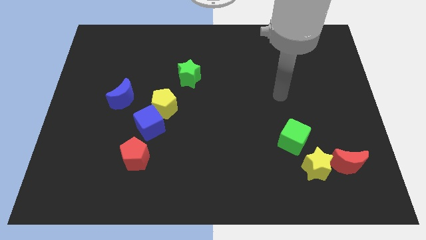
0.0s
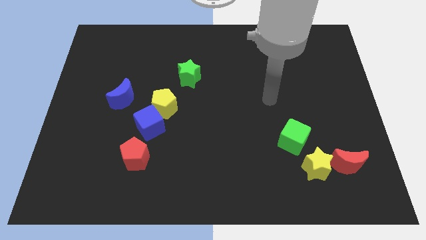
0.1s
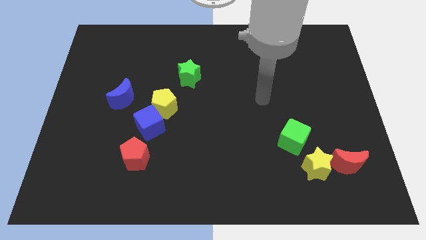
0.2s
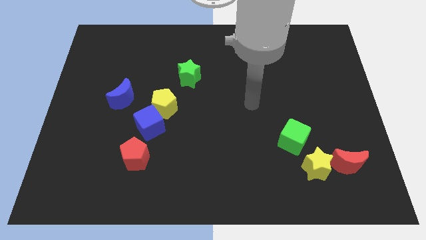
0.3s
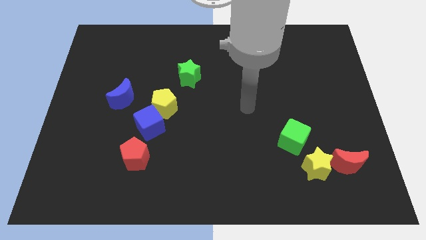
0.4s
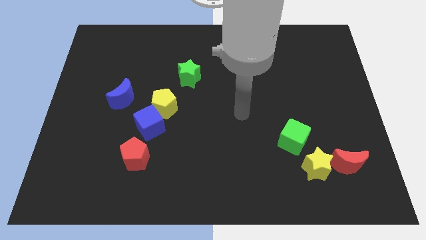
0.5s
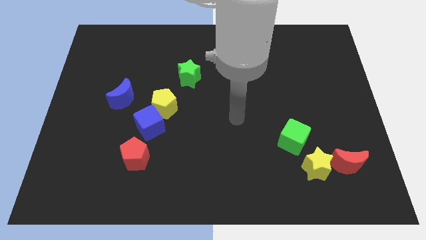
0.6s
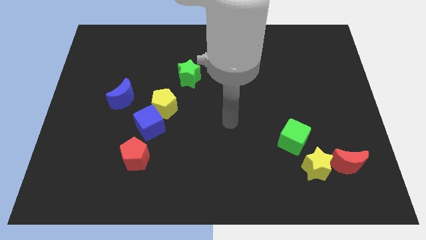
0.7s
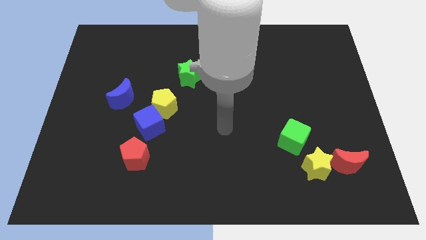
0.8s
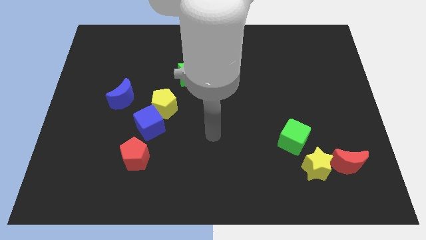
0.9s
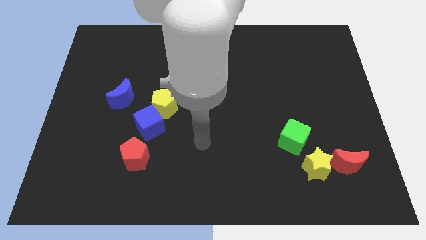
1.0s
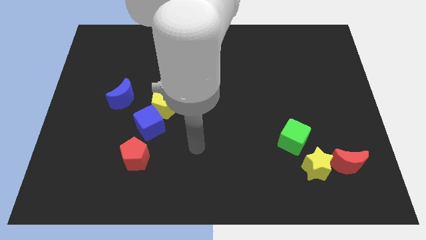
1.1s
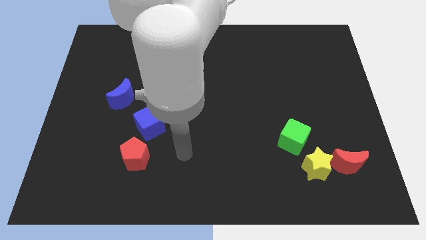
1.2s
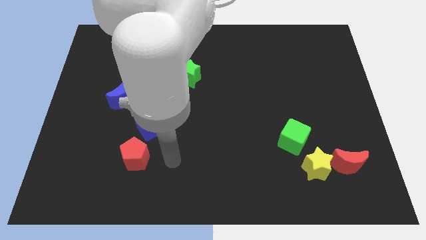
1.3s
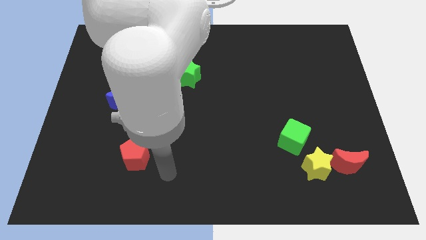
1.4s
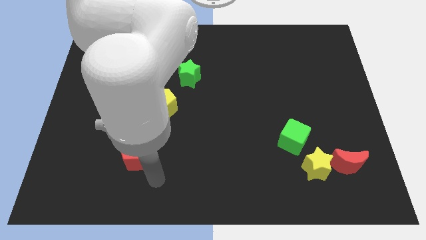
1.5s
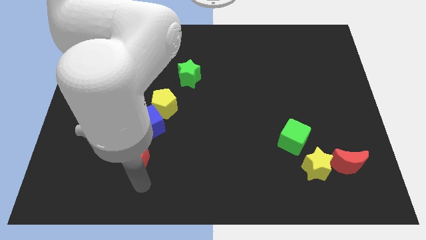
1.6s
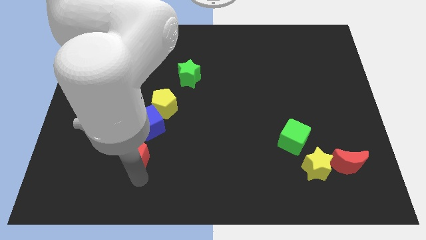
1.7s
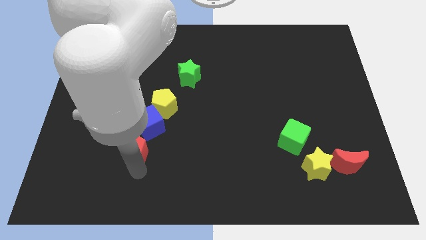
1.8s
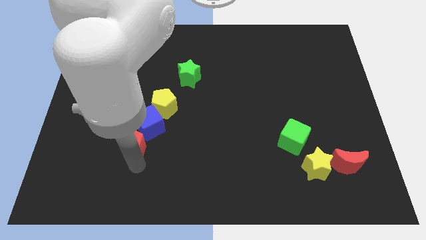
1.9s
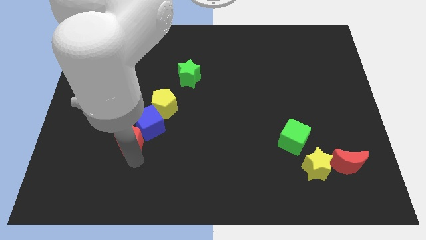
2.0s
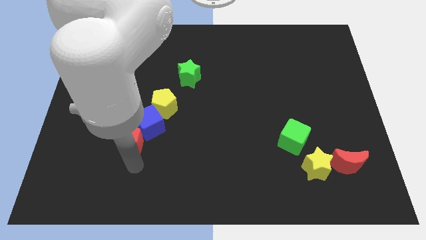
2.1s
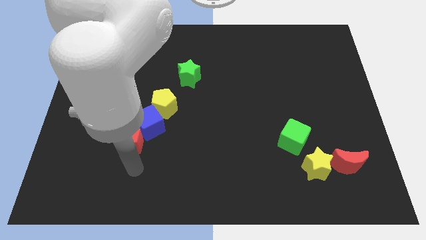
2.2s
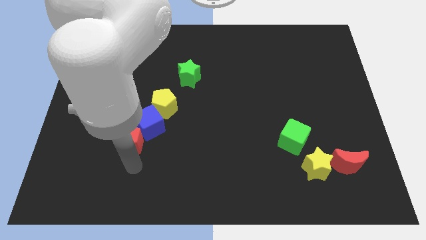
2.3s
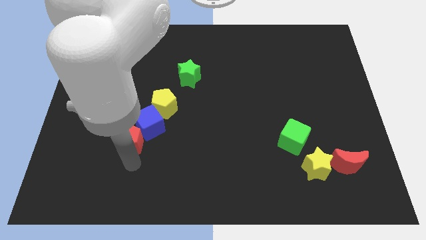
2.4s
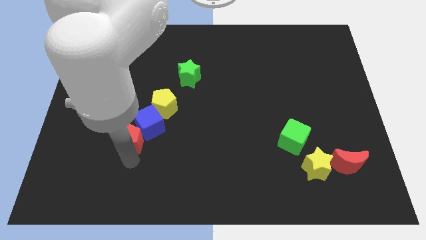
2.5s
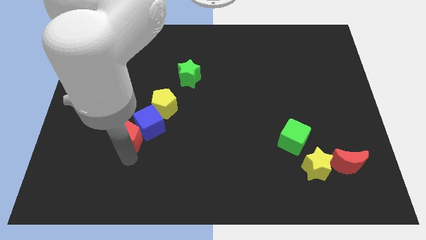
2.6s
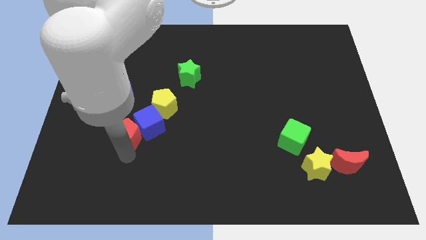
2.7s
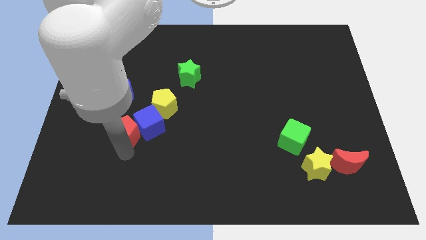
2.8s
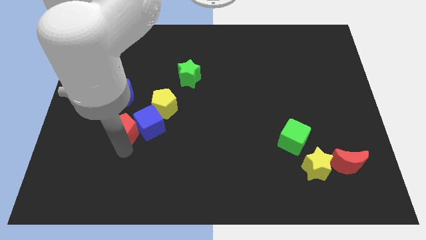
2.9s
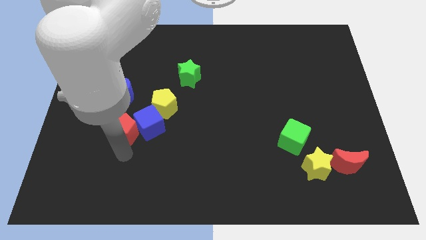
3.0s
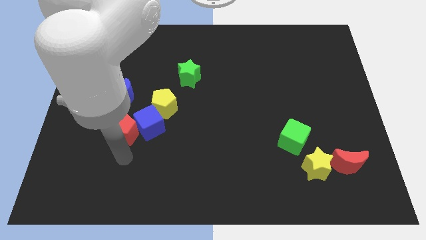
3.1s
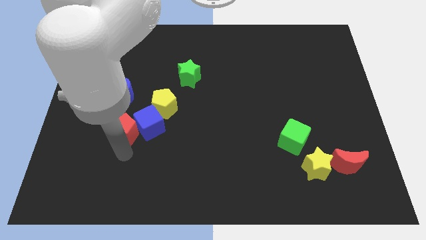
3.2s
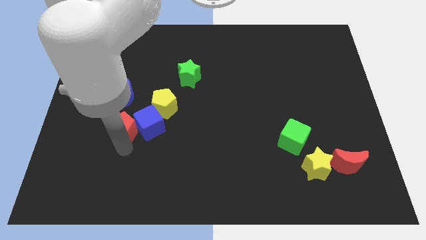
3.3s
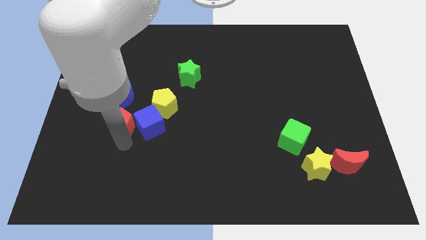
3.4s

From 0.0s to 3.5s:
slightly slide the red pentagon up

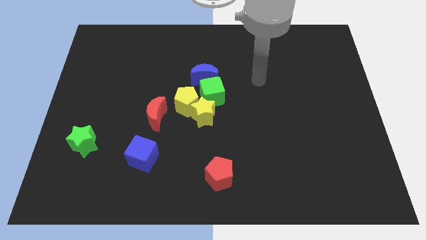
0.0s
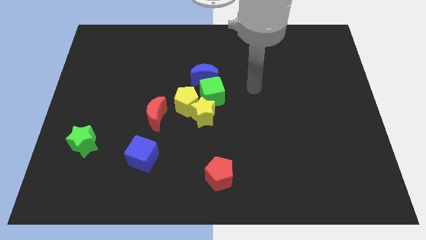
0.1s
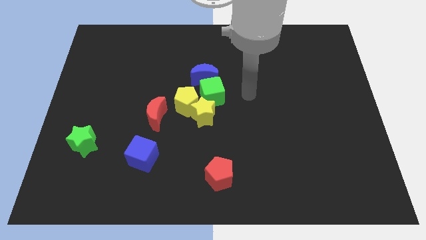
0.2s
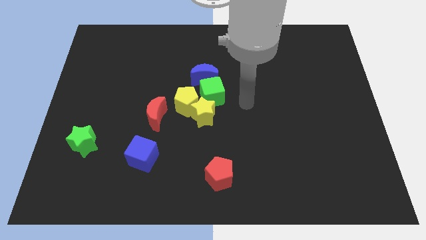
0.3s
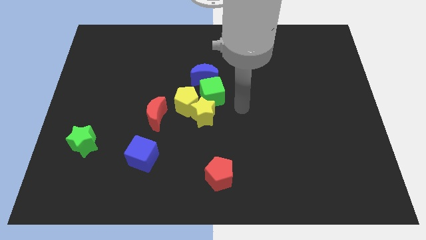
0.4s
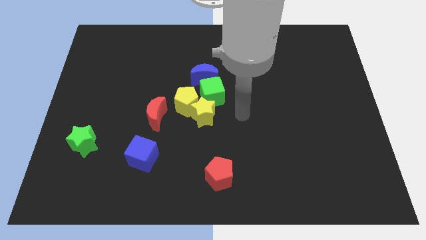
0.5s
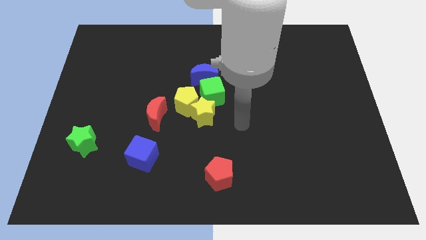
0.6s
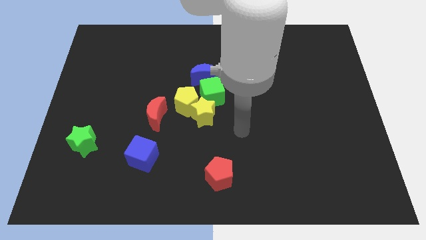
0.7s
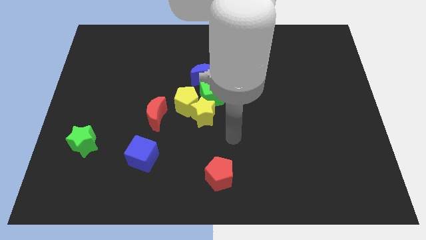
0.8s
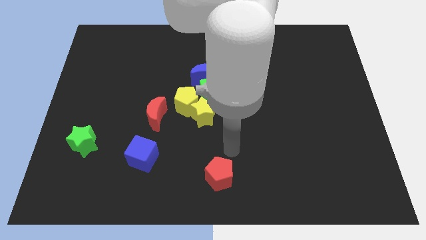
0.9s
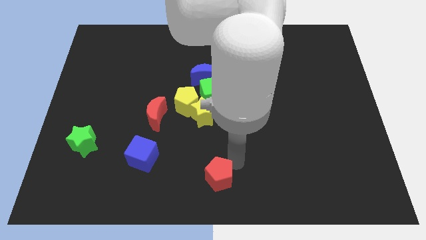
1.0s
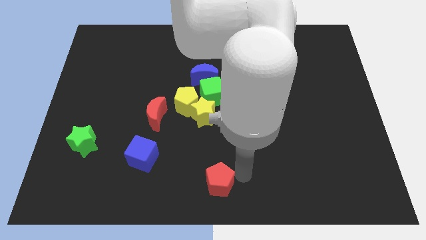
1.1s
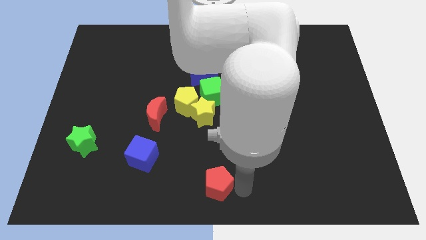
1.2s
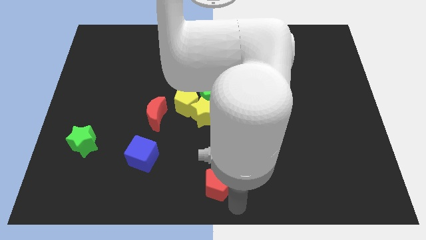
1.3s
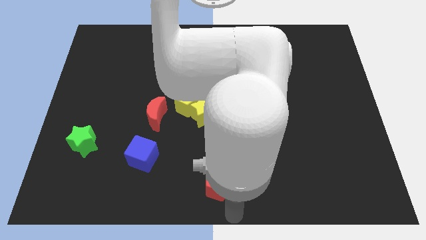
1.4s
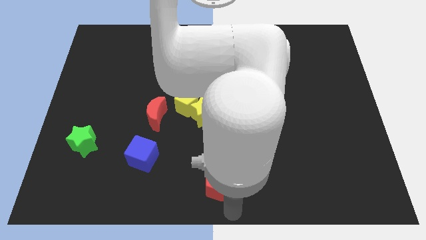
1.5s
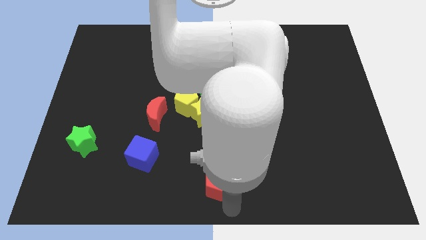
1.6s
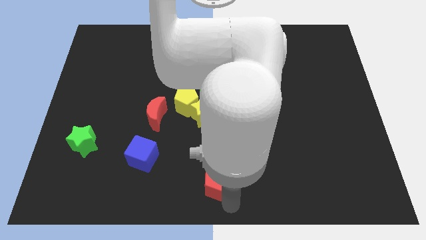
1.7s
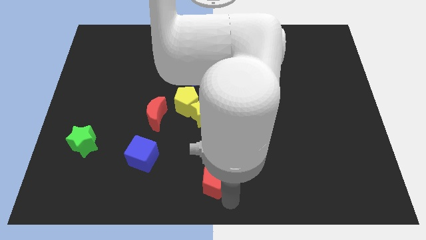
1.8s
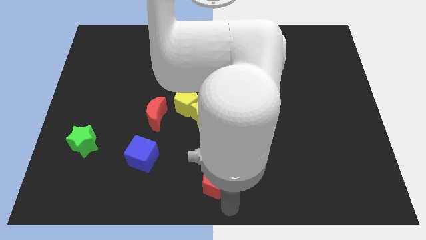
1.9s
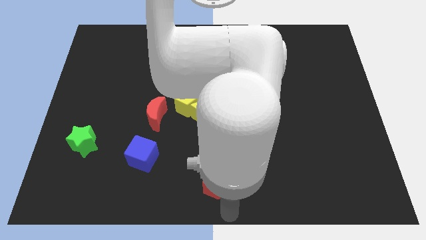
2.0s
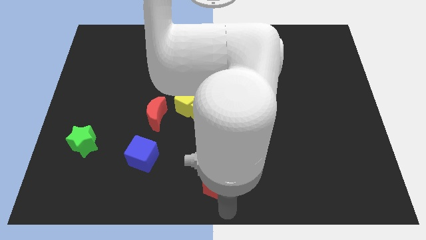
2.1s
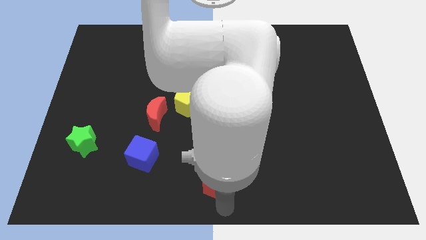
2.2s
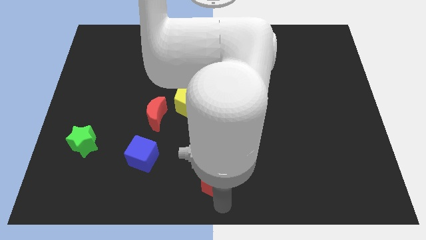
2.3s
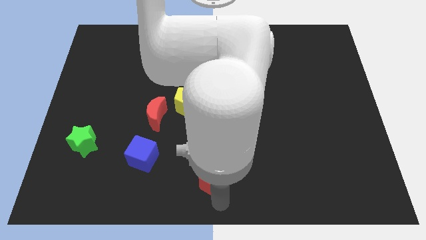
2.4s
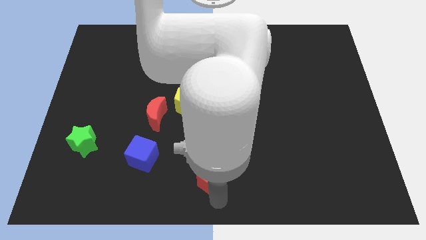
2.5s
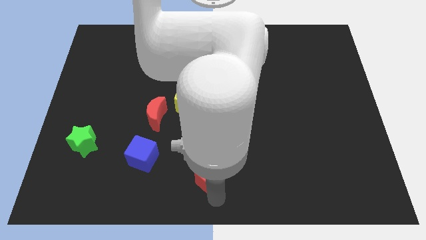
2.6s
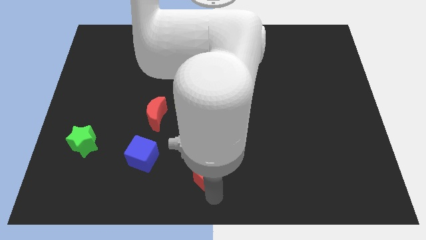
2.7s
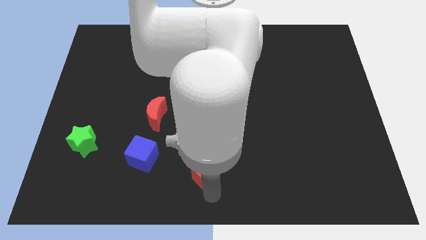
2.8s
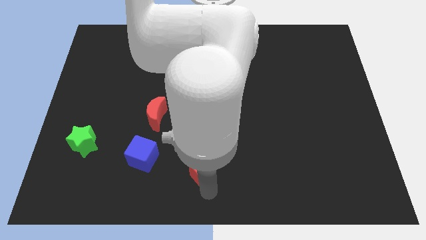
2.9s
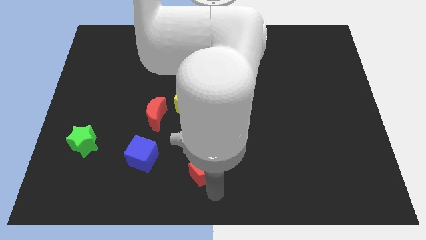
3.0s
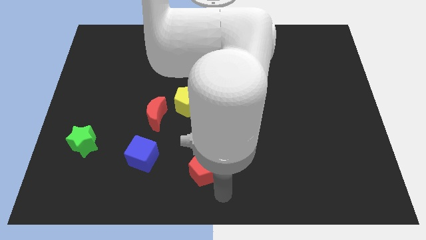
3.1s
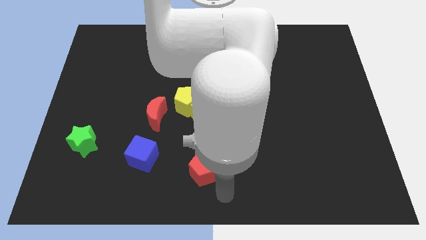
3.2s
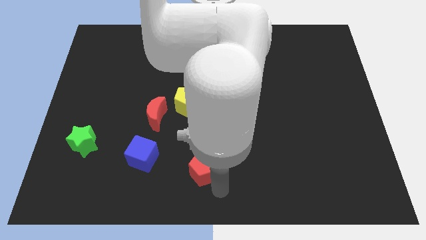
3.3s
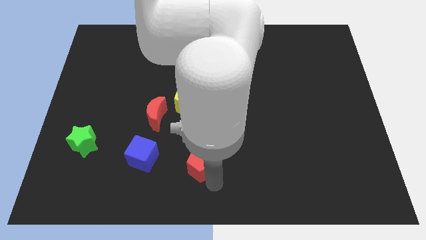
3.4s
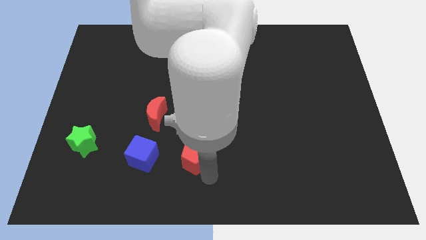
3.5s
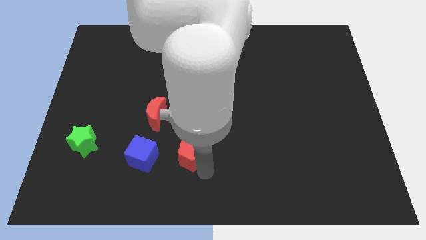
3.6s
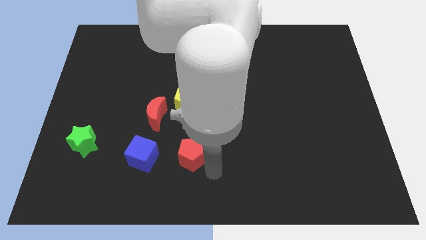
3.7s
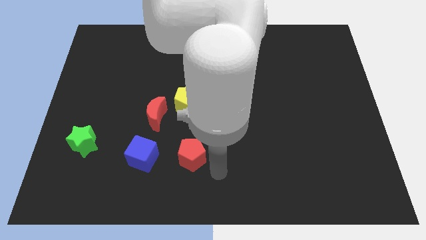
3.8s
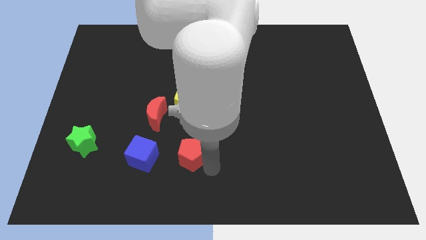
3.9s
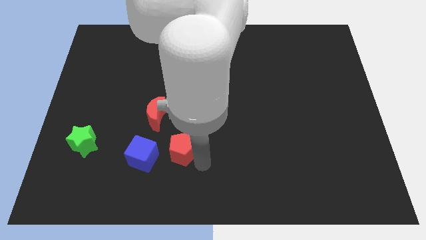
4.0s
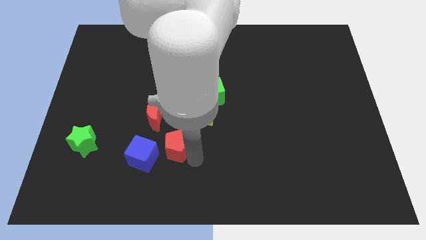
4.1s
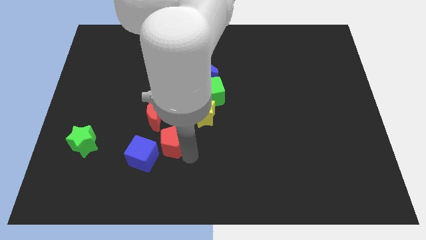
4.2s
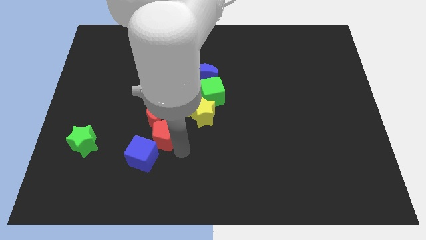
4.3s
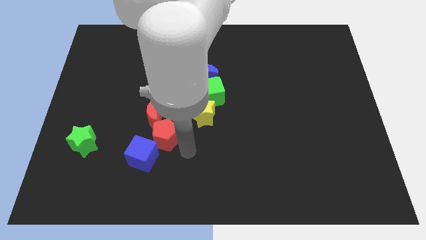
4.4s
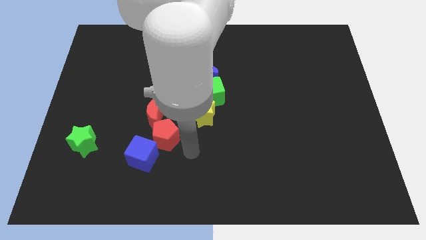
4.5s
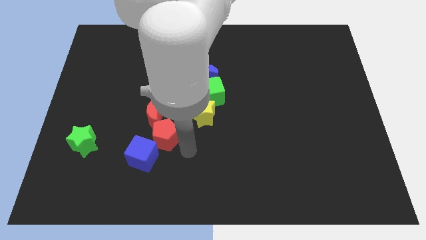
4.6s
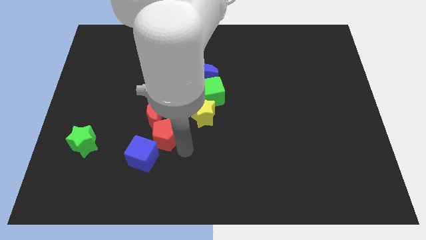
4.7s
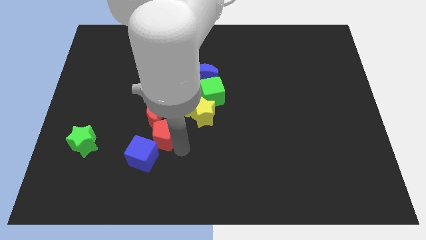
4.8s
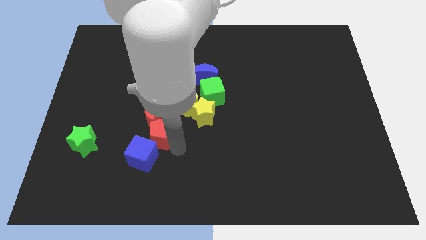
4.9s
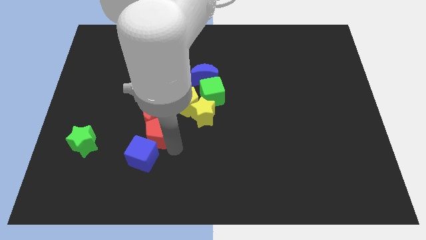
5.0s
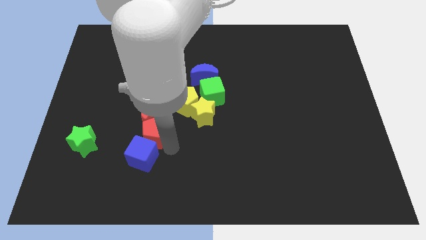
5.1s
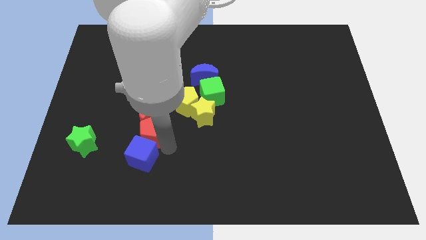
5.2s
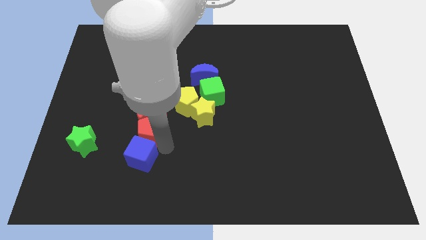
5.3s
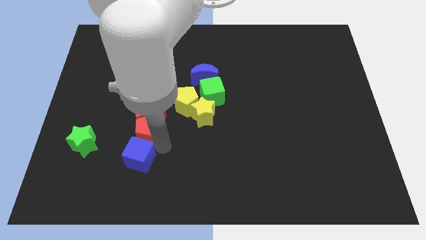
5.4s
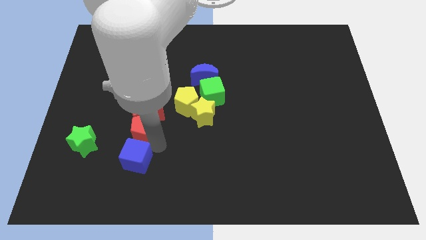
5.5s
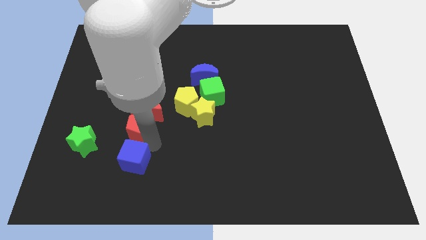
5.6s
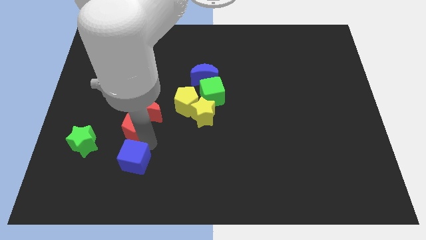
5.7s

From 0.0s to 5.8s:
slide the red pentagon upwards and left diagonally
